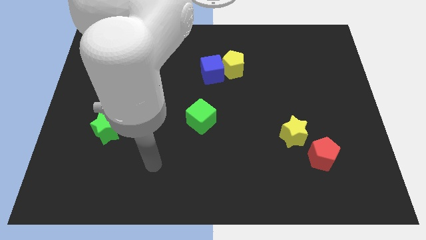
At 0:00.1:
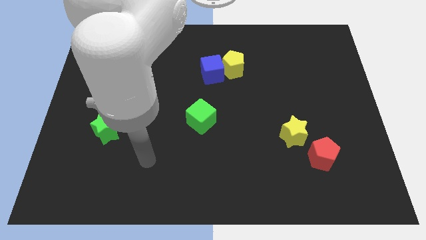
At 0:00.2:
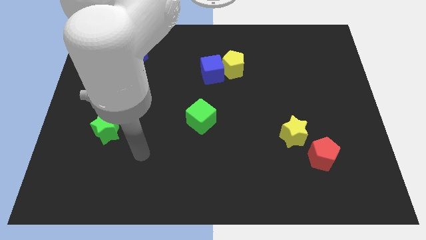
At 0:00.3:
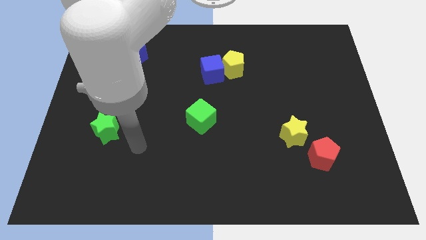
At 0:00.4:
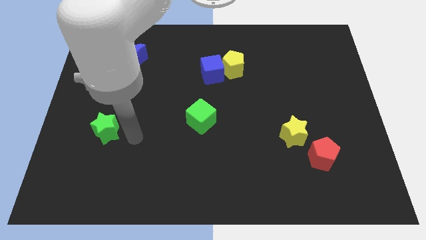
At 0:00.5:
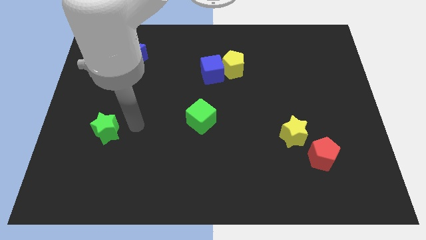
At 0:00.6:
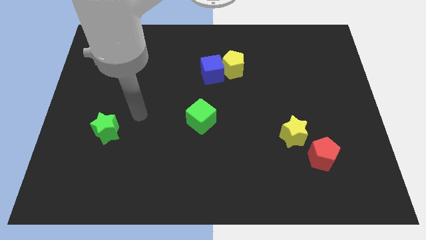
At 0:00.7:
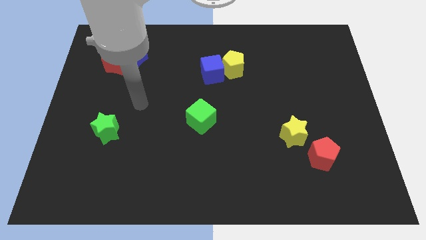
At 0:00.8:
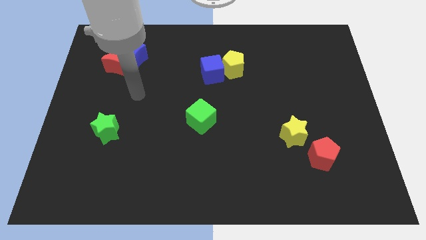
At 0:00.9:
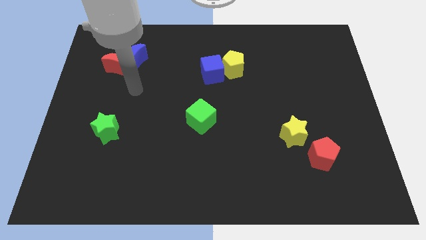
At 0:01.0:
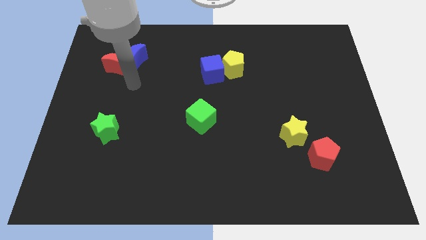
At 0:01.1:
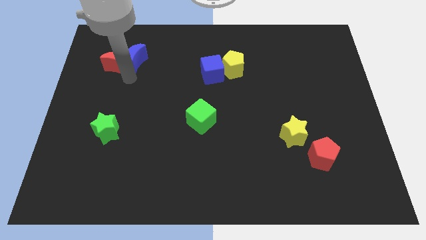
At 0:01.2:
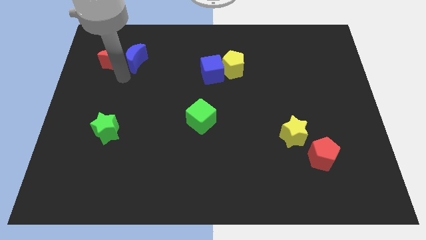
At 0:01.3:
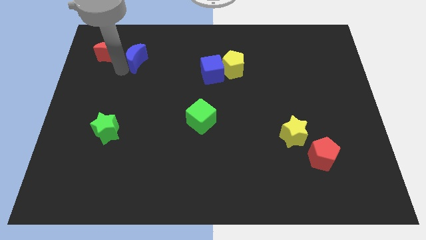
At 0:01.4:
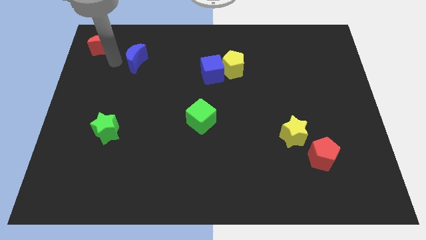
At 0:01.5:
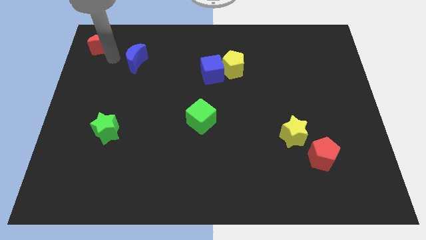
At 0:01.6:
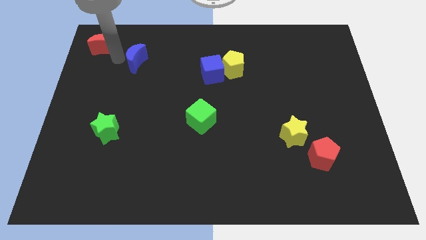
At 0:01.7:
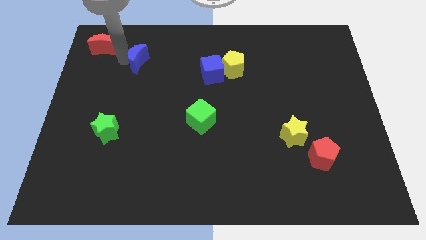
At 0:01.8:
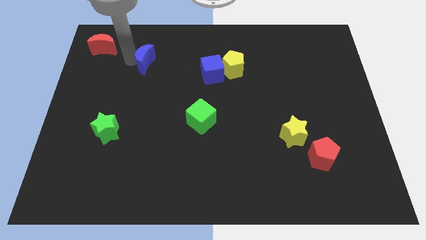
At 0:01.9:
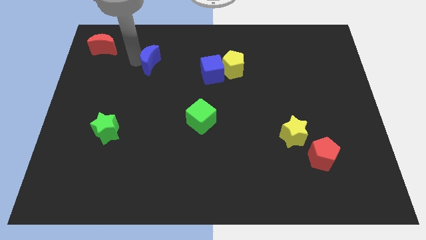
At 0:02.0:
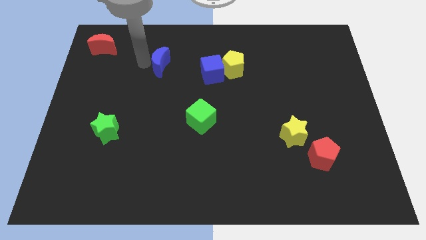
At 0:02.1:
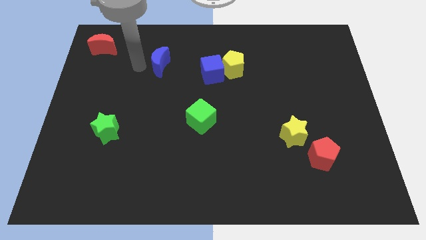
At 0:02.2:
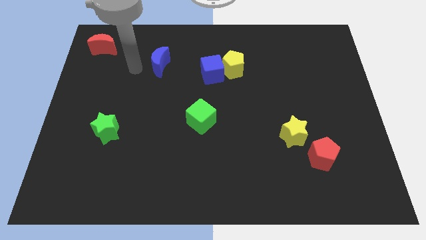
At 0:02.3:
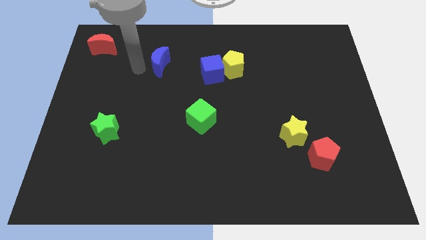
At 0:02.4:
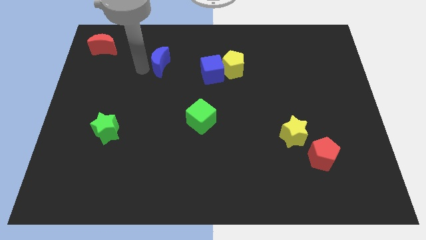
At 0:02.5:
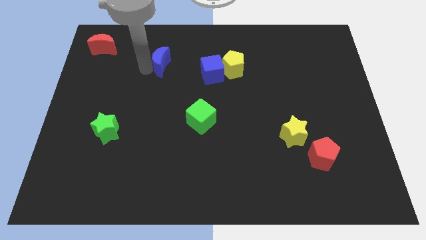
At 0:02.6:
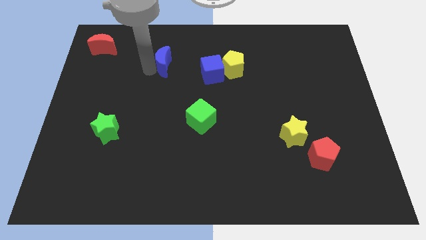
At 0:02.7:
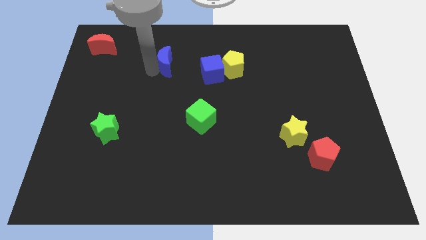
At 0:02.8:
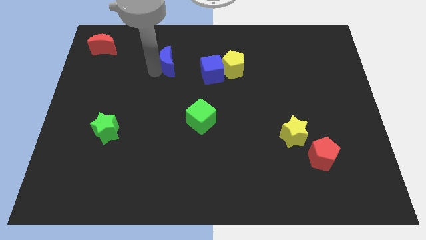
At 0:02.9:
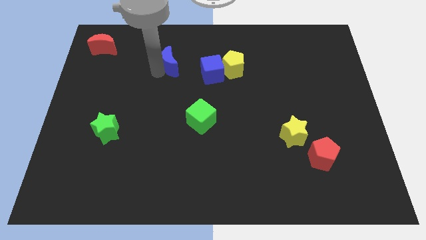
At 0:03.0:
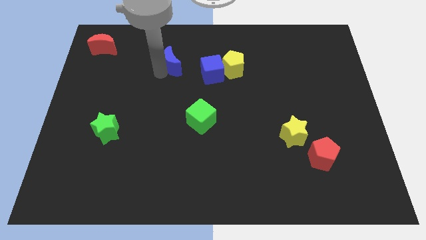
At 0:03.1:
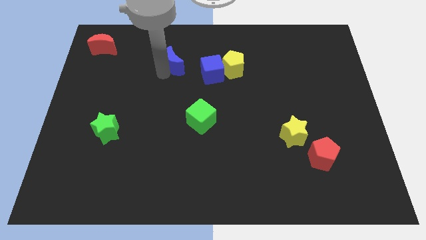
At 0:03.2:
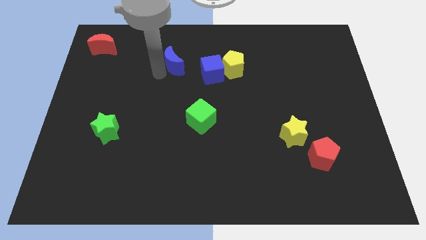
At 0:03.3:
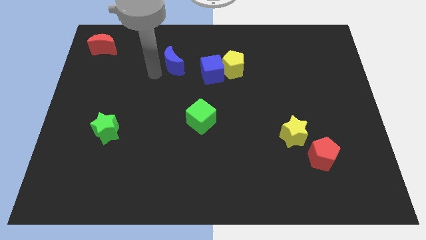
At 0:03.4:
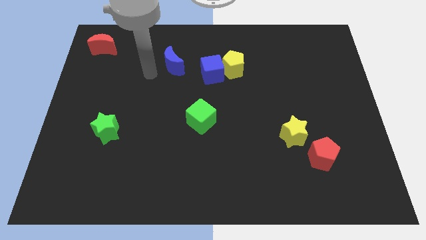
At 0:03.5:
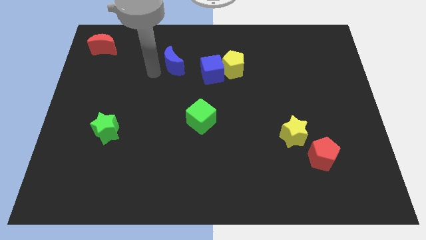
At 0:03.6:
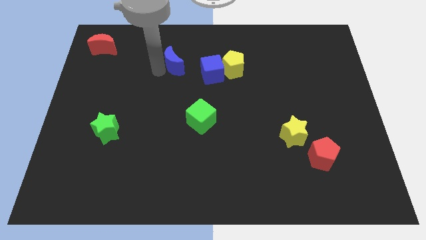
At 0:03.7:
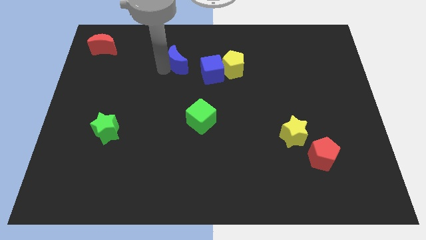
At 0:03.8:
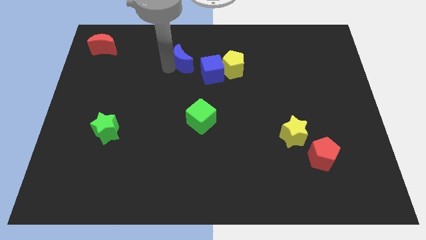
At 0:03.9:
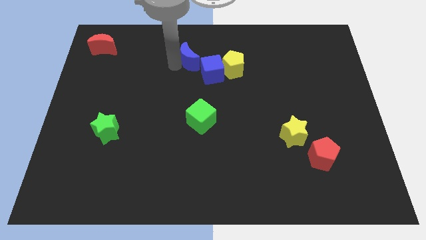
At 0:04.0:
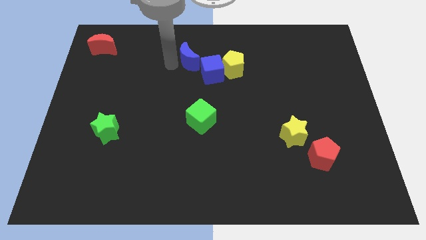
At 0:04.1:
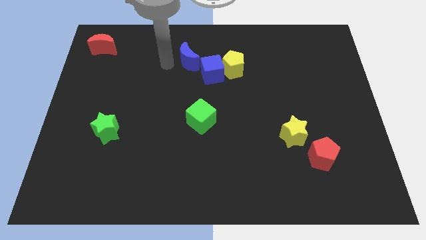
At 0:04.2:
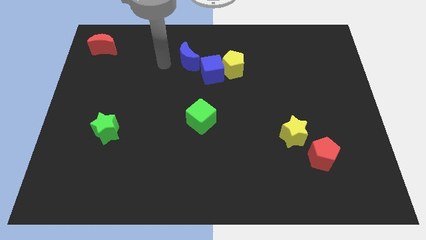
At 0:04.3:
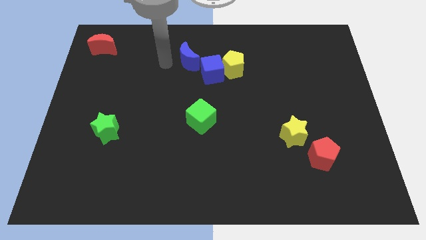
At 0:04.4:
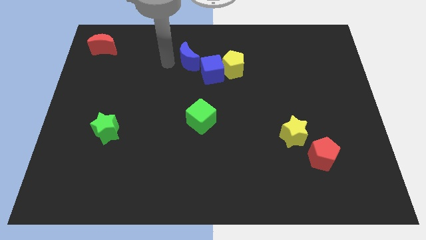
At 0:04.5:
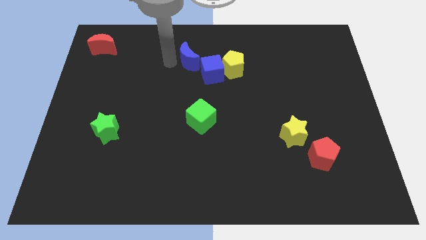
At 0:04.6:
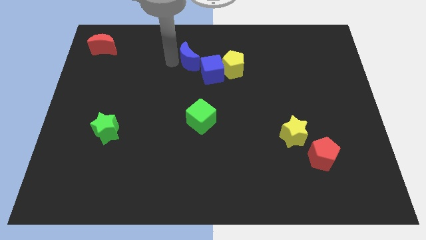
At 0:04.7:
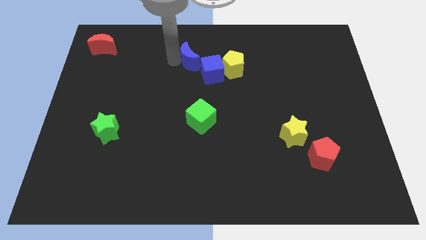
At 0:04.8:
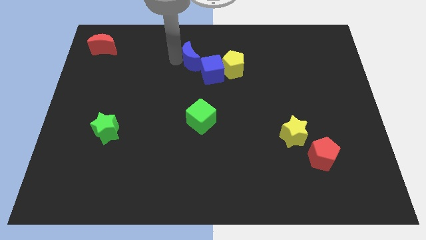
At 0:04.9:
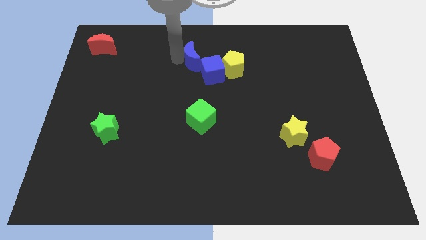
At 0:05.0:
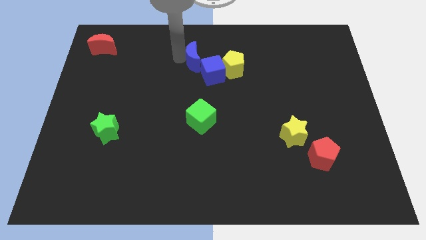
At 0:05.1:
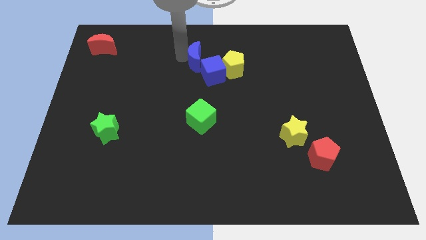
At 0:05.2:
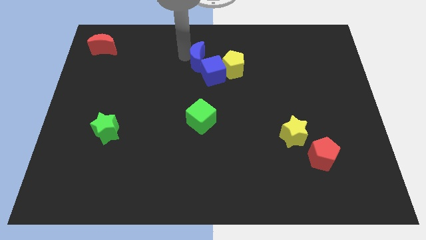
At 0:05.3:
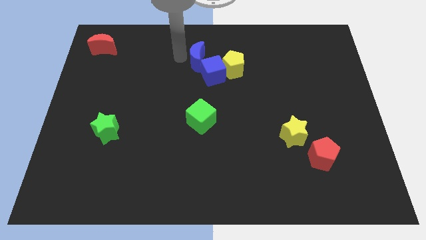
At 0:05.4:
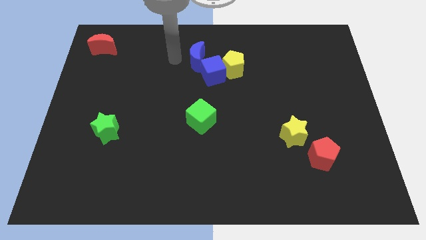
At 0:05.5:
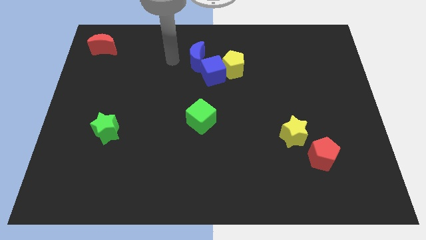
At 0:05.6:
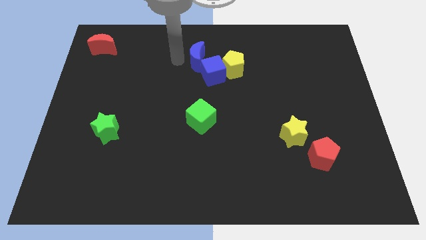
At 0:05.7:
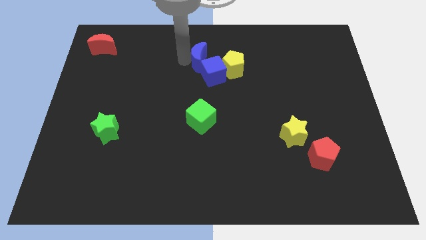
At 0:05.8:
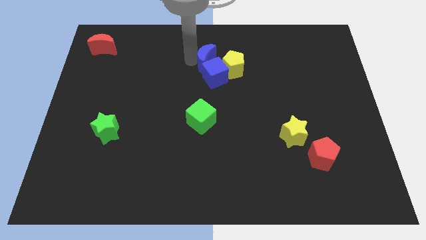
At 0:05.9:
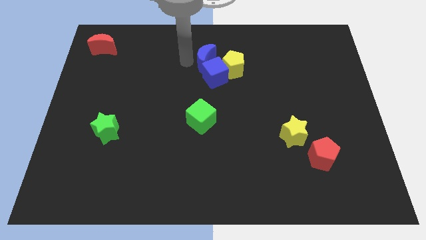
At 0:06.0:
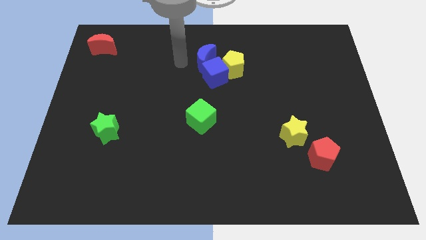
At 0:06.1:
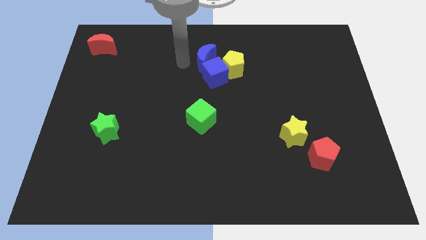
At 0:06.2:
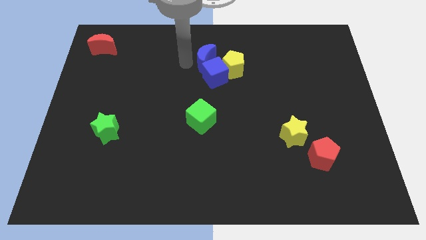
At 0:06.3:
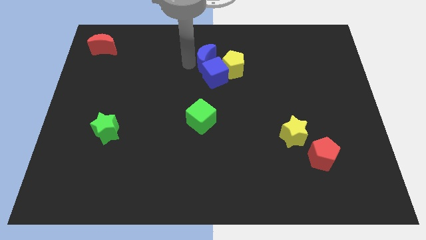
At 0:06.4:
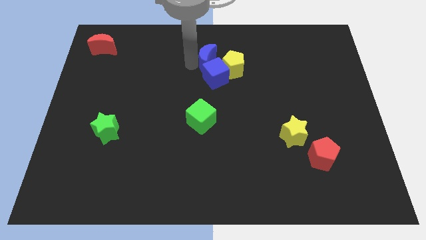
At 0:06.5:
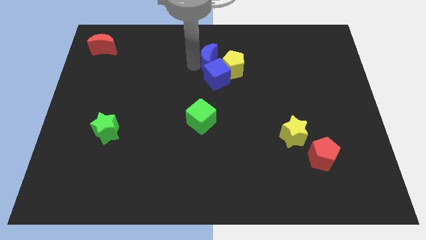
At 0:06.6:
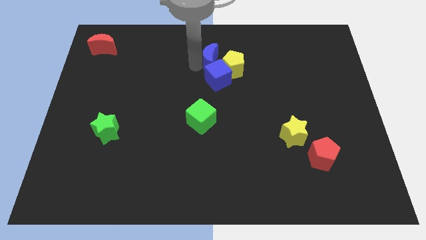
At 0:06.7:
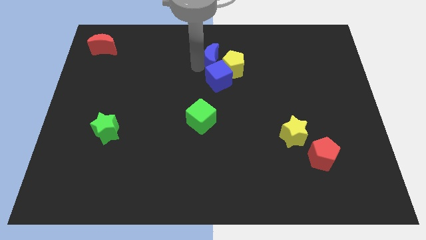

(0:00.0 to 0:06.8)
slide the blue moon towards the yellow pentagon
